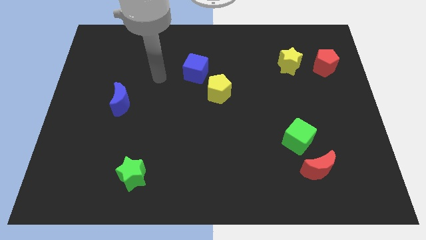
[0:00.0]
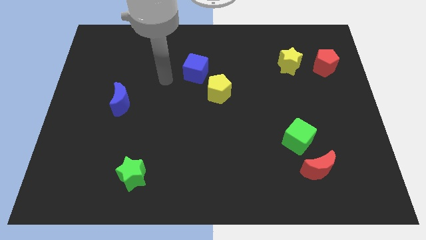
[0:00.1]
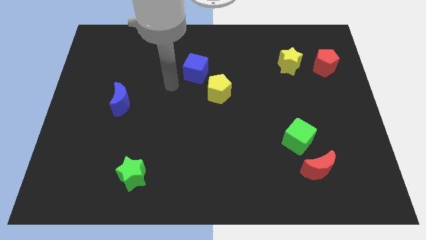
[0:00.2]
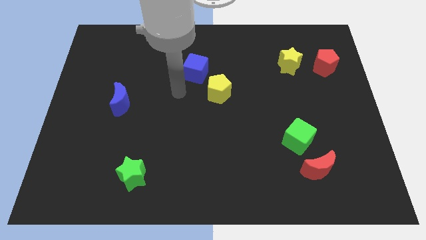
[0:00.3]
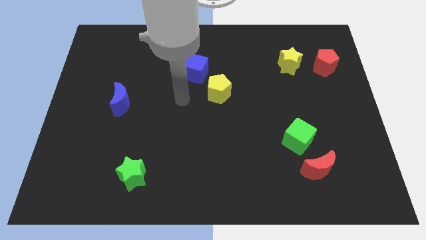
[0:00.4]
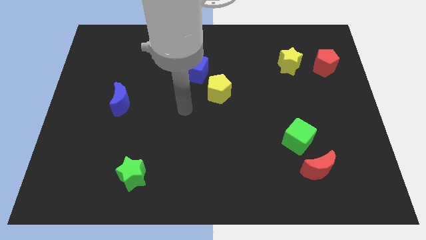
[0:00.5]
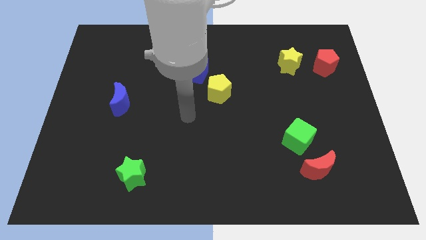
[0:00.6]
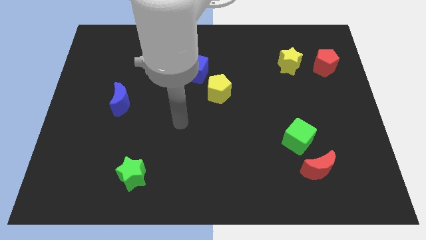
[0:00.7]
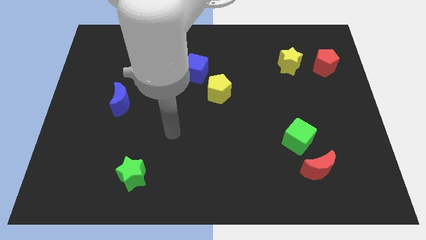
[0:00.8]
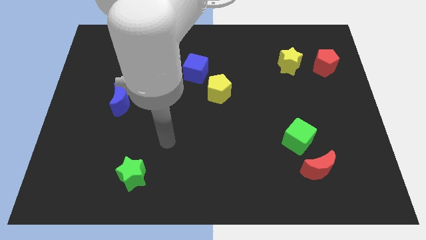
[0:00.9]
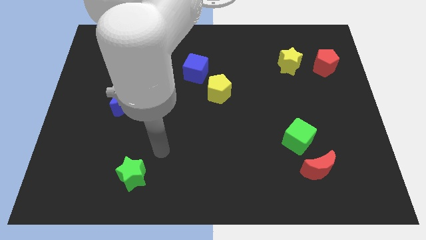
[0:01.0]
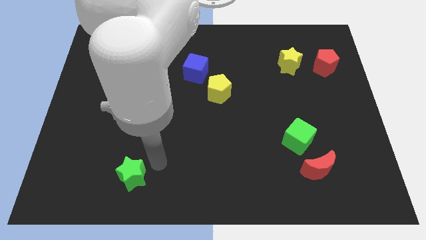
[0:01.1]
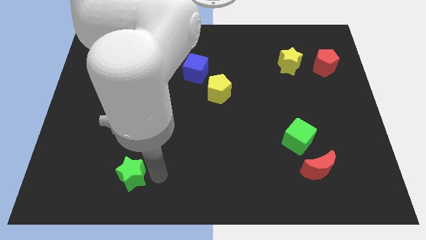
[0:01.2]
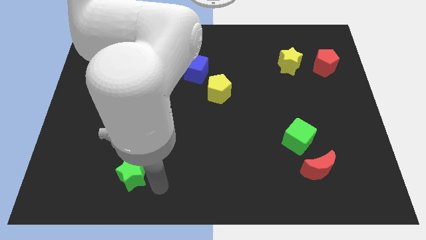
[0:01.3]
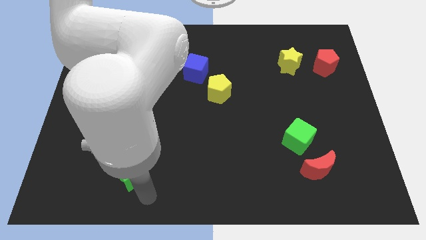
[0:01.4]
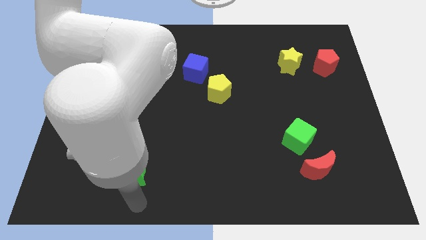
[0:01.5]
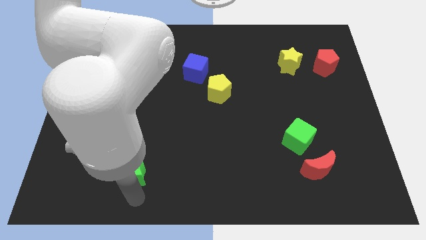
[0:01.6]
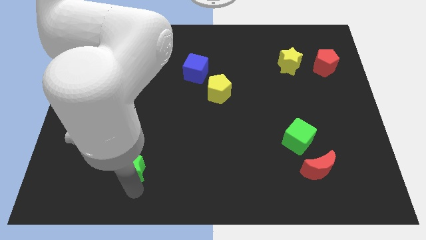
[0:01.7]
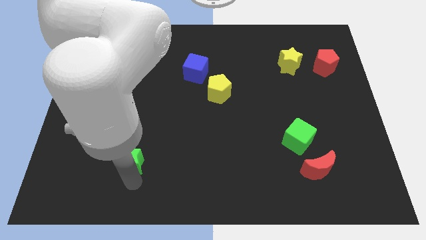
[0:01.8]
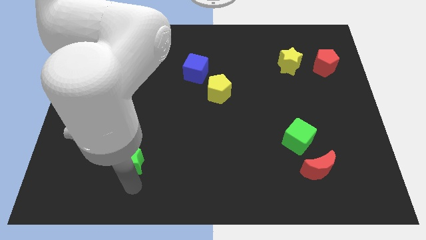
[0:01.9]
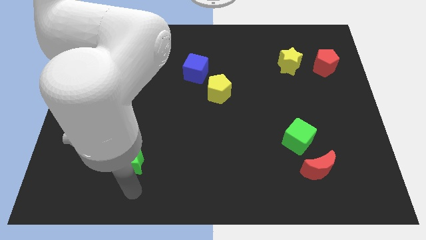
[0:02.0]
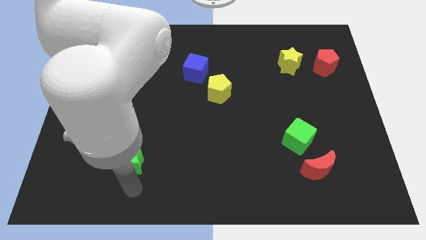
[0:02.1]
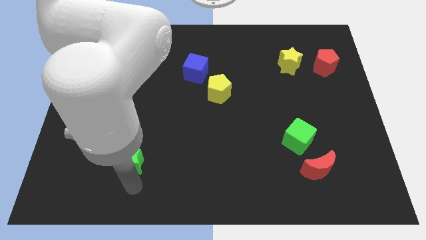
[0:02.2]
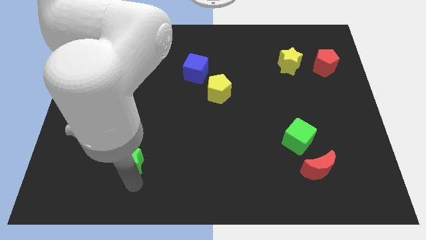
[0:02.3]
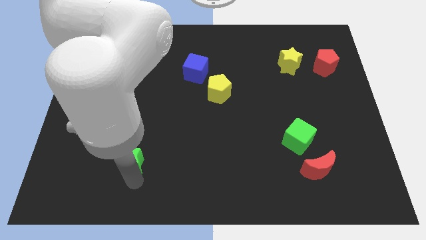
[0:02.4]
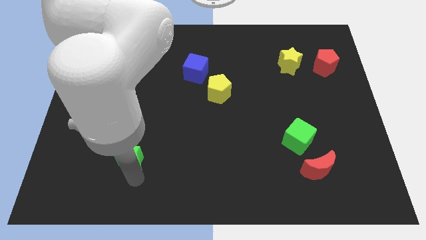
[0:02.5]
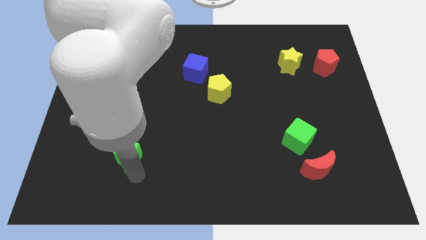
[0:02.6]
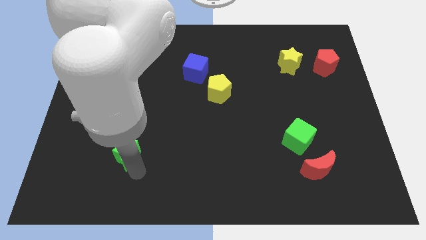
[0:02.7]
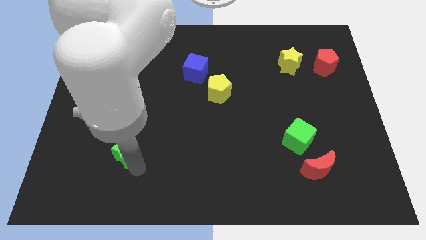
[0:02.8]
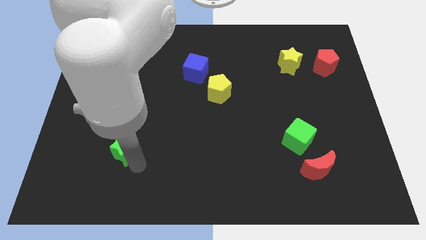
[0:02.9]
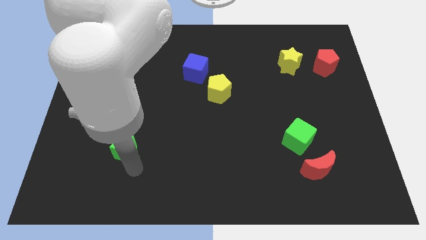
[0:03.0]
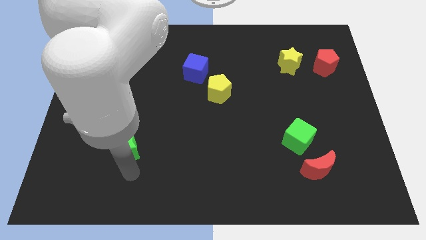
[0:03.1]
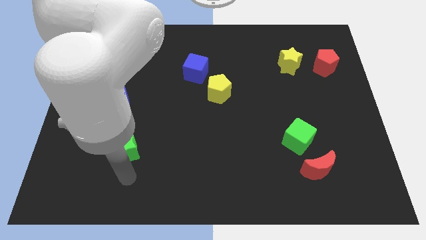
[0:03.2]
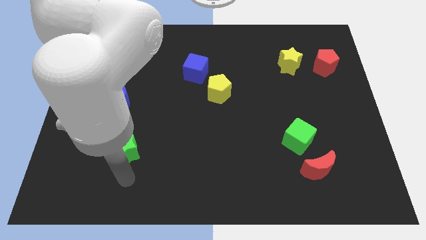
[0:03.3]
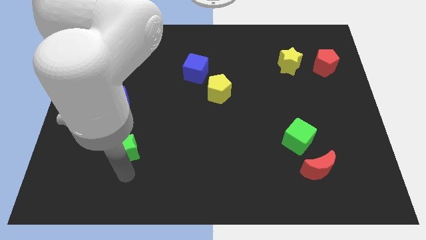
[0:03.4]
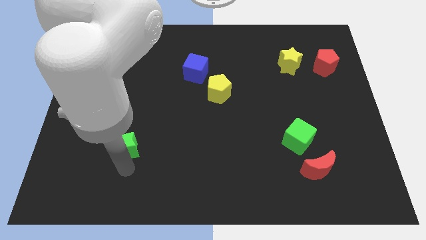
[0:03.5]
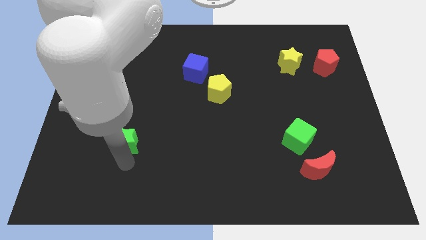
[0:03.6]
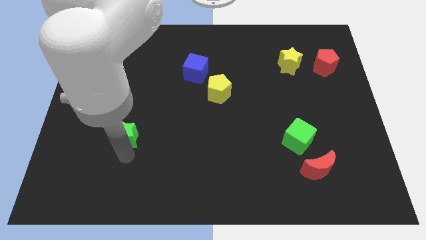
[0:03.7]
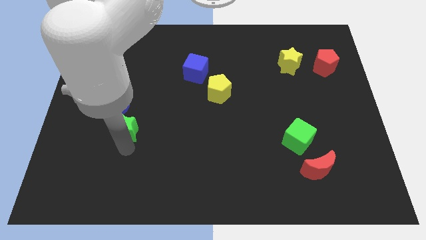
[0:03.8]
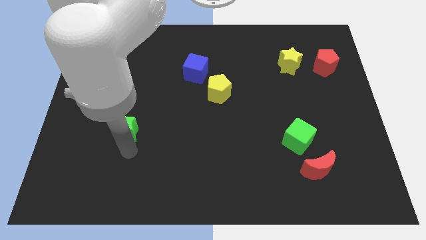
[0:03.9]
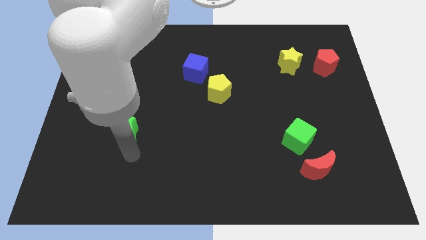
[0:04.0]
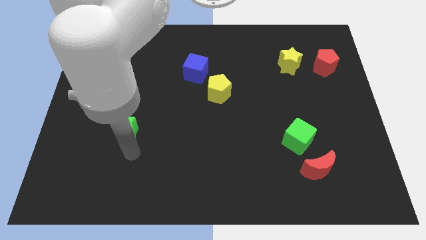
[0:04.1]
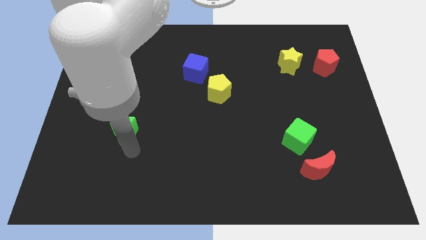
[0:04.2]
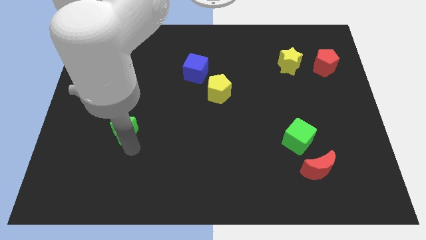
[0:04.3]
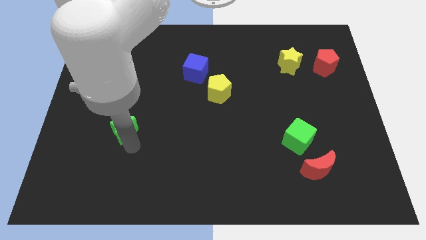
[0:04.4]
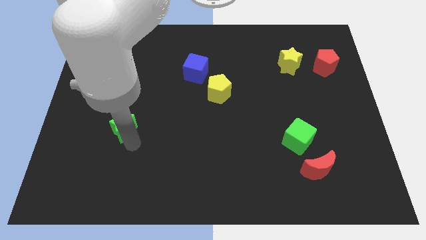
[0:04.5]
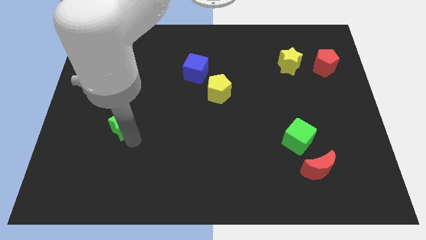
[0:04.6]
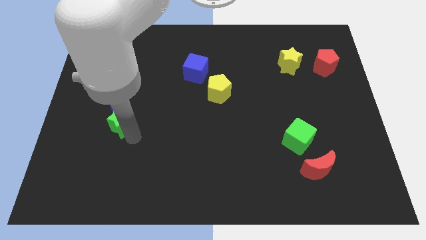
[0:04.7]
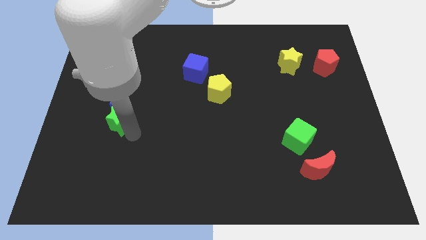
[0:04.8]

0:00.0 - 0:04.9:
push the green star next to the blue moon

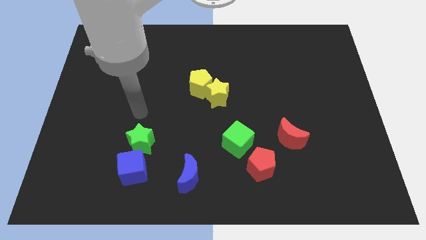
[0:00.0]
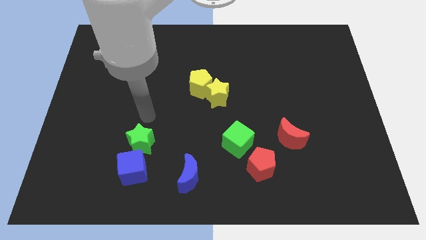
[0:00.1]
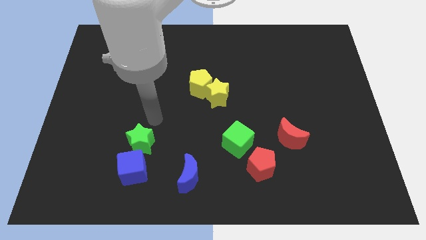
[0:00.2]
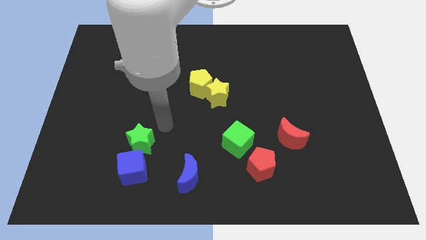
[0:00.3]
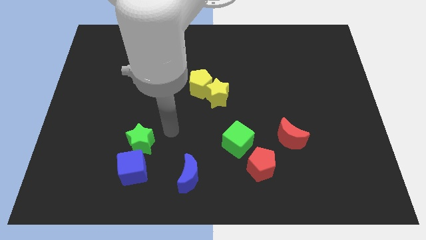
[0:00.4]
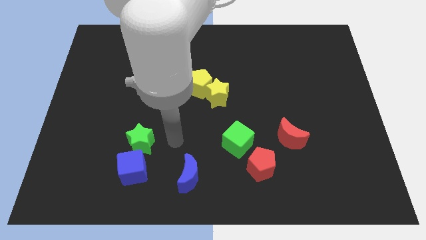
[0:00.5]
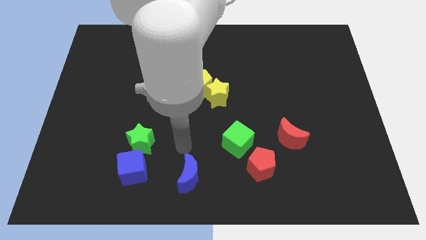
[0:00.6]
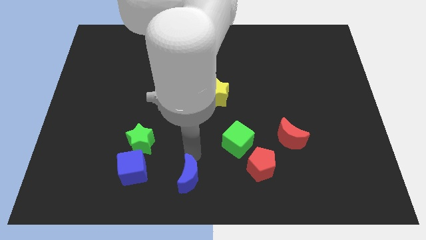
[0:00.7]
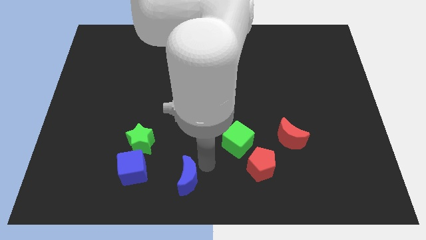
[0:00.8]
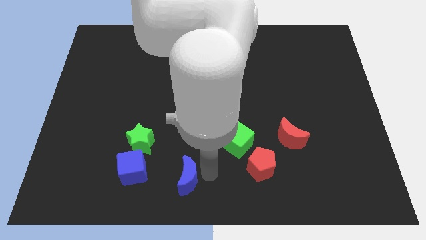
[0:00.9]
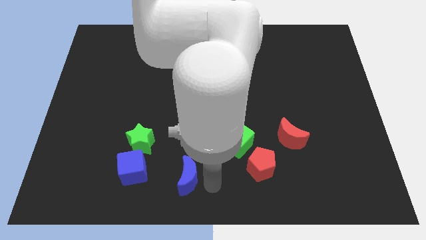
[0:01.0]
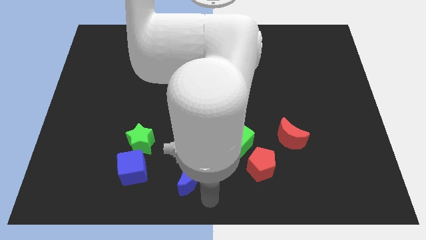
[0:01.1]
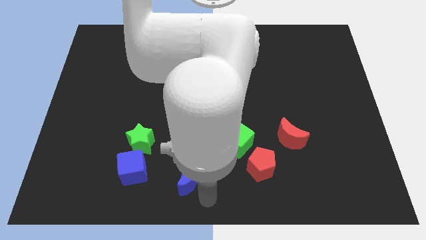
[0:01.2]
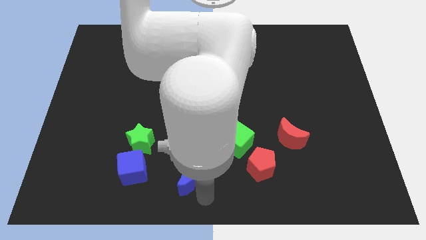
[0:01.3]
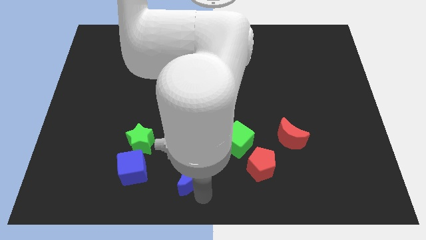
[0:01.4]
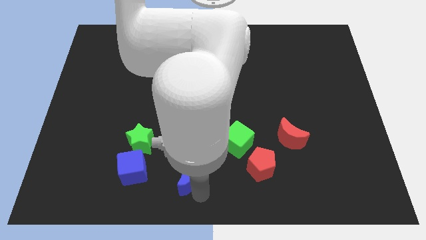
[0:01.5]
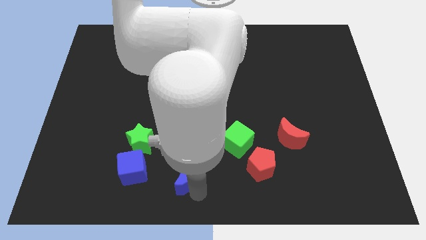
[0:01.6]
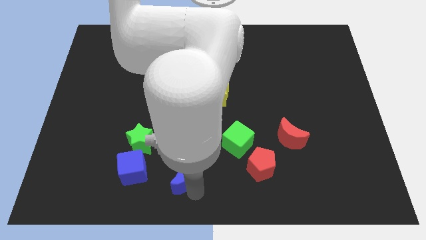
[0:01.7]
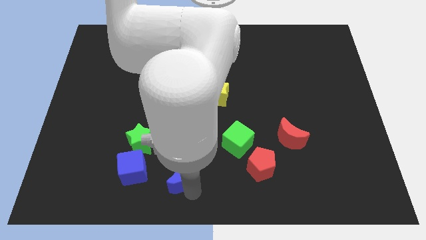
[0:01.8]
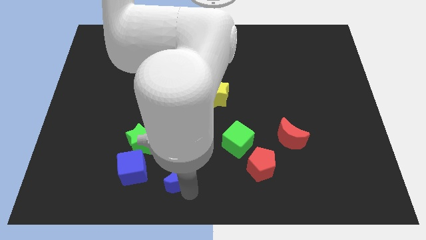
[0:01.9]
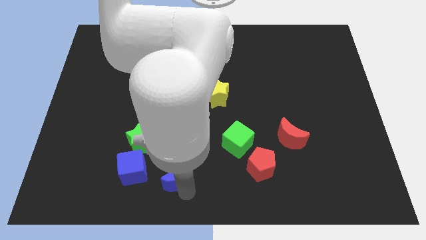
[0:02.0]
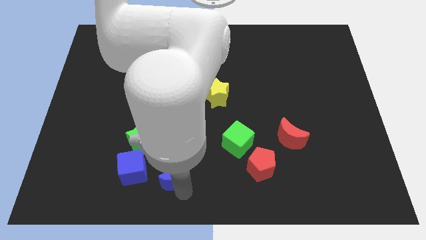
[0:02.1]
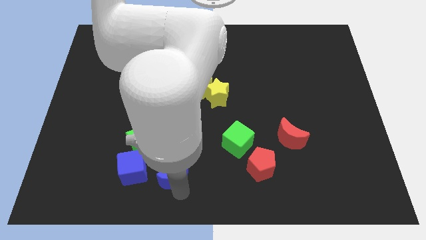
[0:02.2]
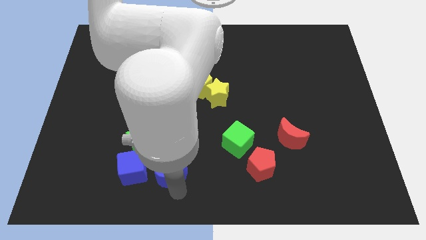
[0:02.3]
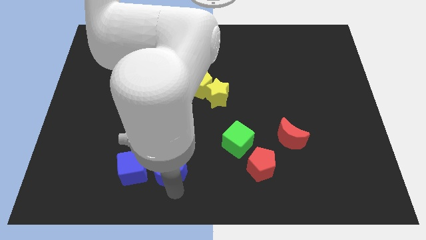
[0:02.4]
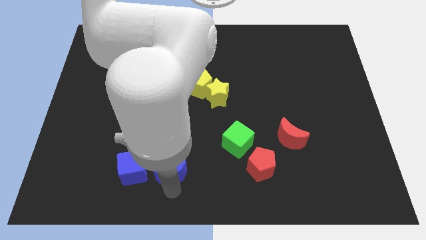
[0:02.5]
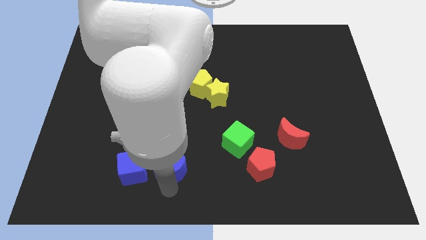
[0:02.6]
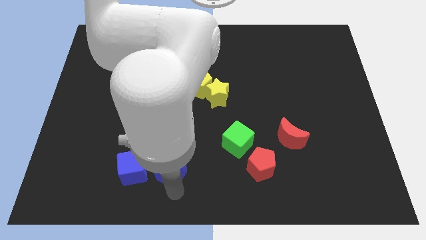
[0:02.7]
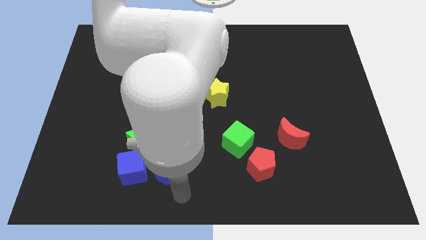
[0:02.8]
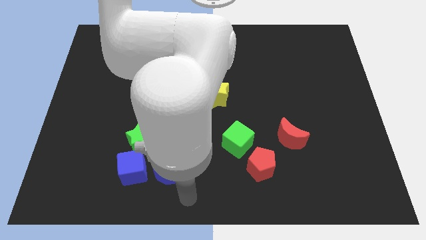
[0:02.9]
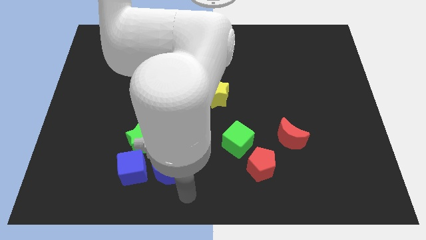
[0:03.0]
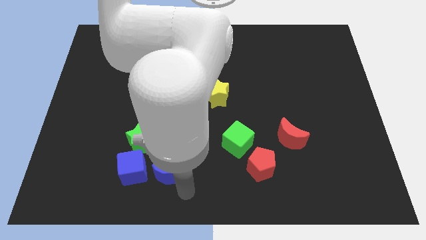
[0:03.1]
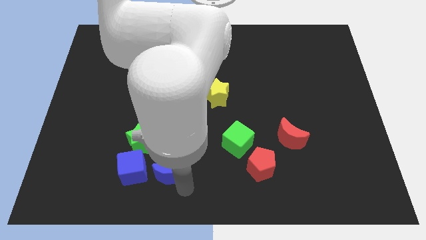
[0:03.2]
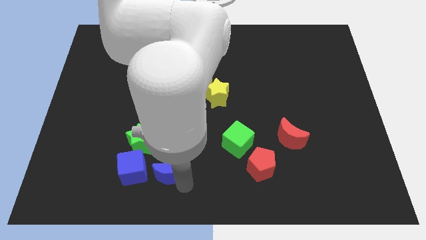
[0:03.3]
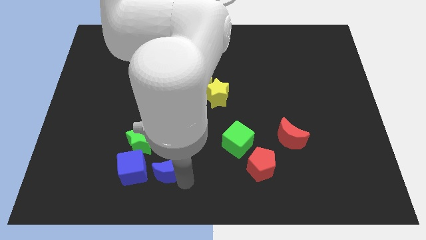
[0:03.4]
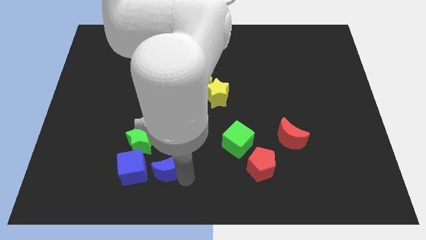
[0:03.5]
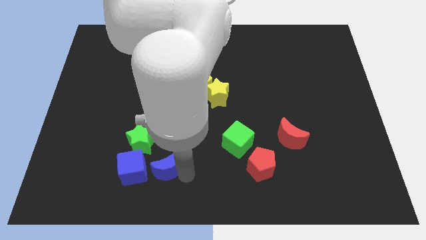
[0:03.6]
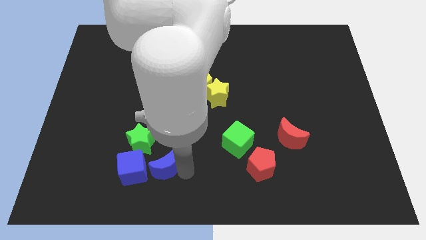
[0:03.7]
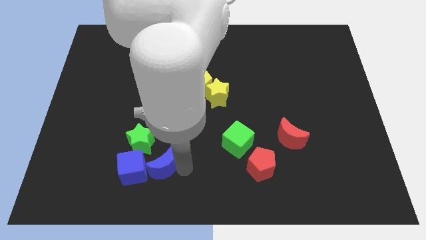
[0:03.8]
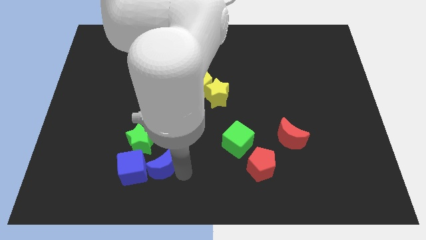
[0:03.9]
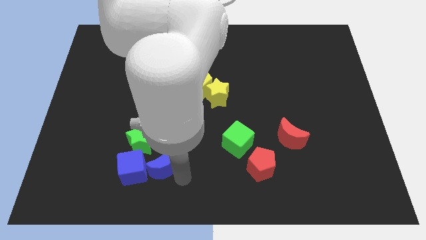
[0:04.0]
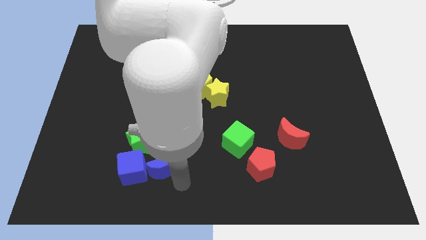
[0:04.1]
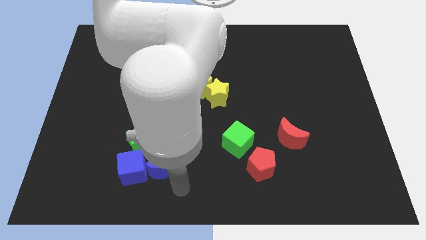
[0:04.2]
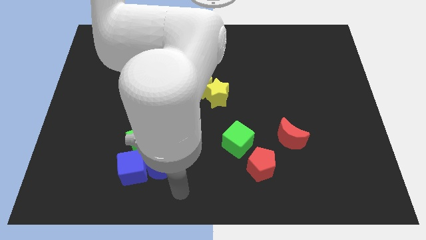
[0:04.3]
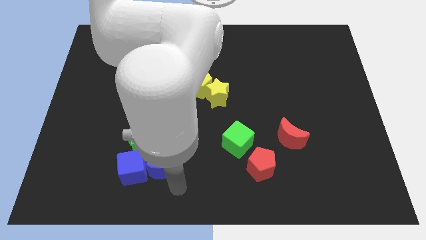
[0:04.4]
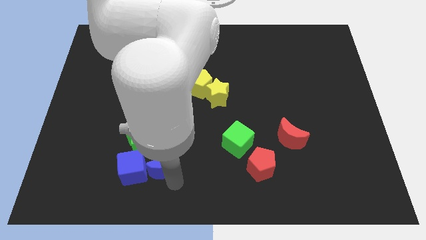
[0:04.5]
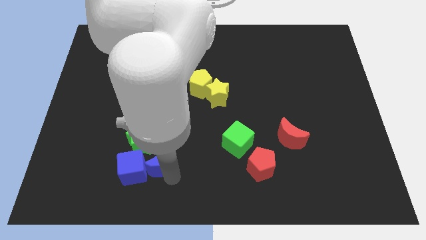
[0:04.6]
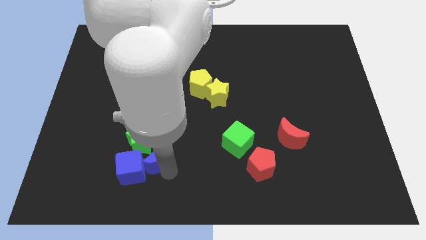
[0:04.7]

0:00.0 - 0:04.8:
slide the blue moon next to the green star
